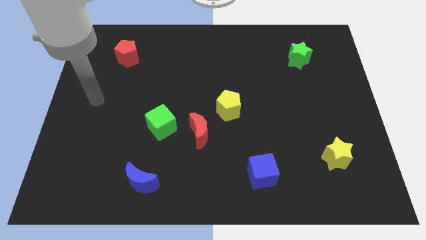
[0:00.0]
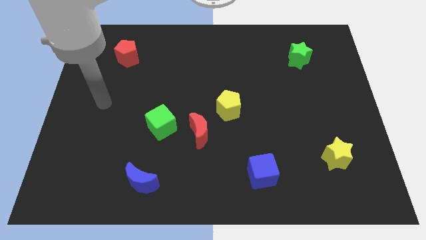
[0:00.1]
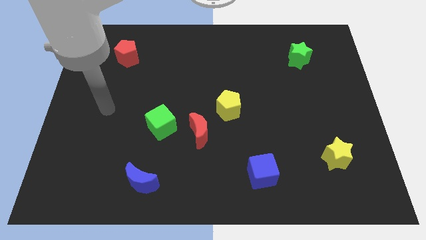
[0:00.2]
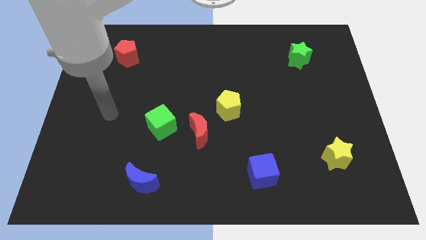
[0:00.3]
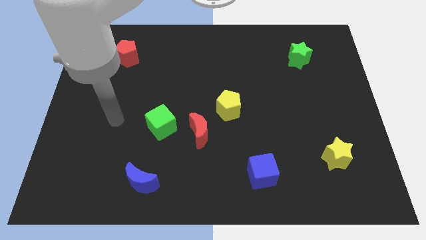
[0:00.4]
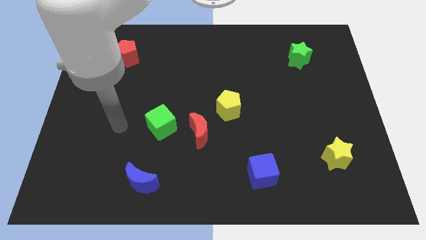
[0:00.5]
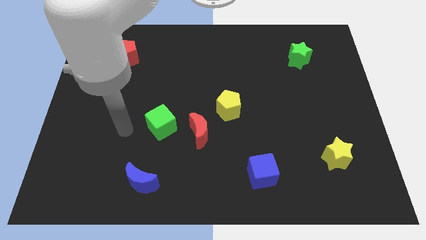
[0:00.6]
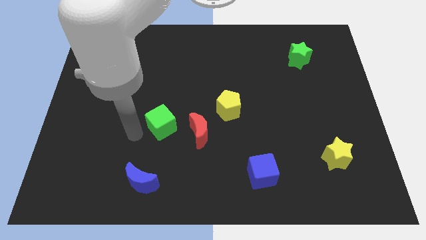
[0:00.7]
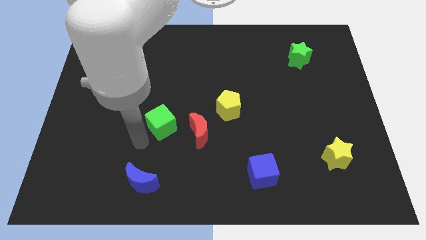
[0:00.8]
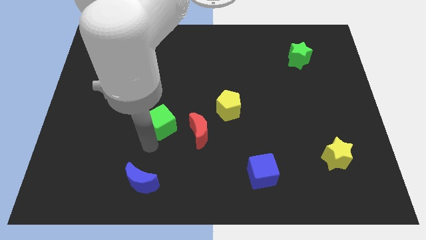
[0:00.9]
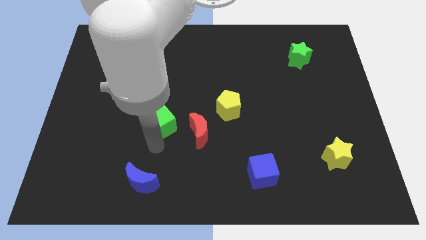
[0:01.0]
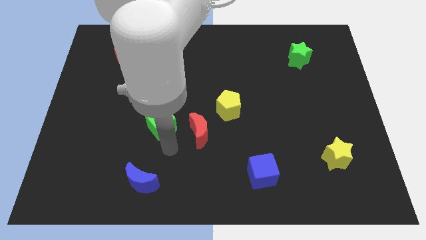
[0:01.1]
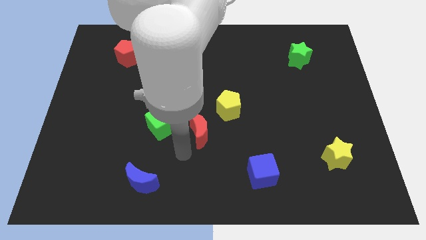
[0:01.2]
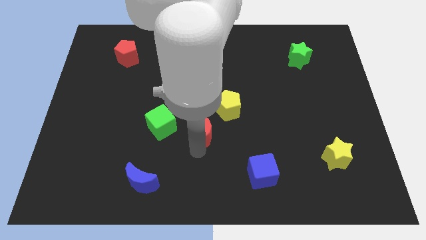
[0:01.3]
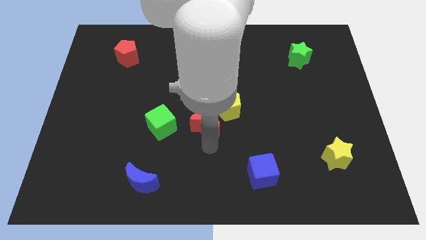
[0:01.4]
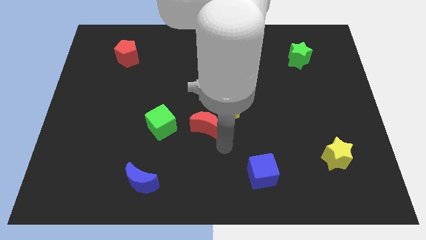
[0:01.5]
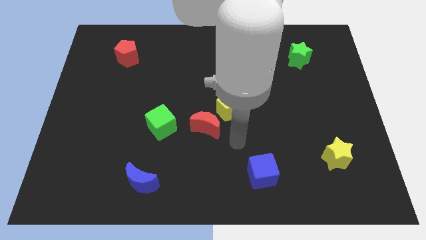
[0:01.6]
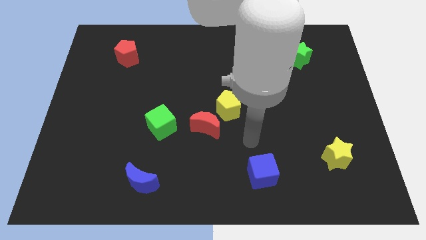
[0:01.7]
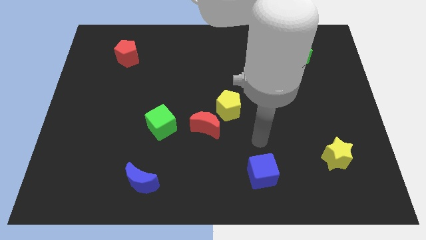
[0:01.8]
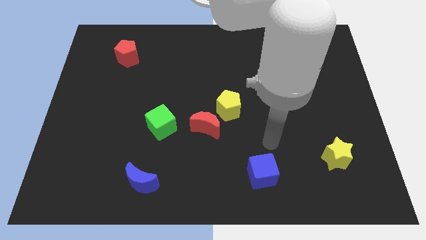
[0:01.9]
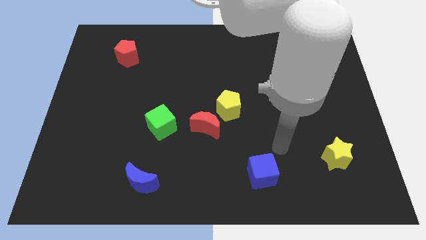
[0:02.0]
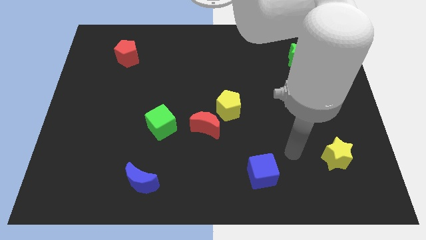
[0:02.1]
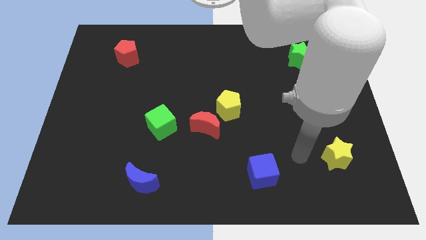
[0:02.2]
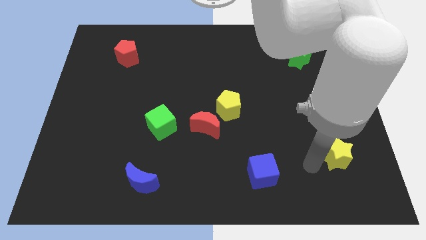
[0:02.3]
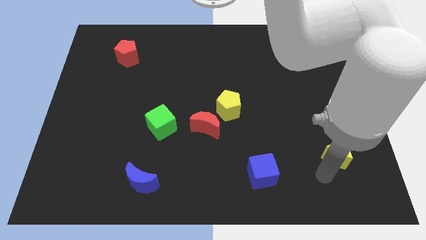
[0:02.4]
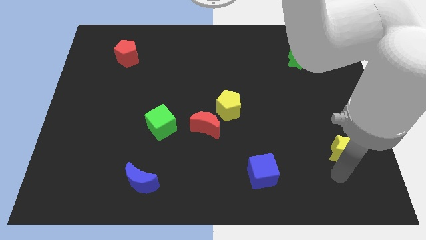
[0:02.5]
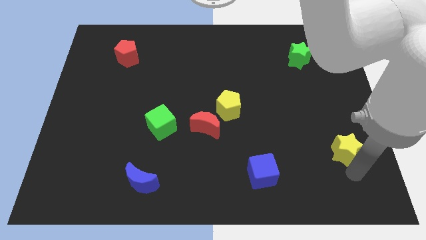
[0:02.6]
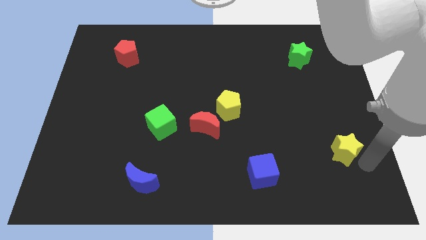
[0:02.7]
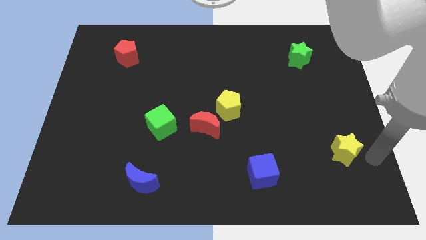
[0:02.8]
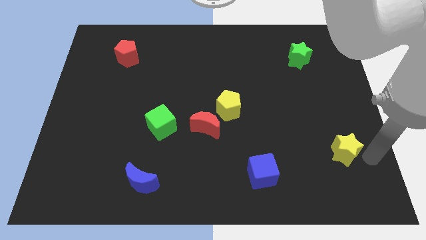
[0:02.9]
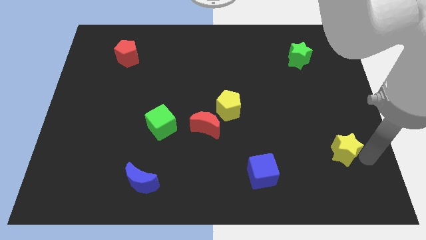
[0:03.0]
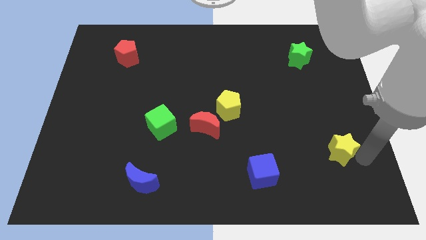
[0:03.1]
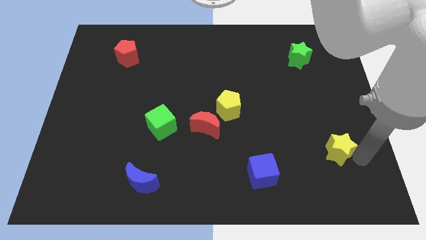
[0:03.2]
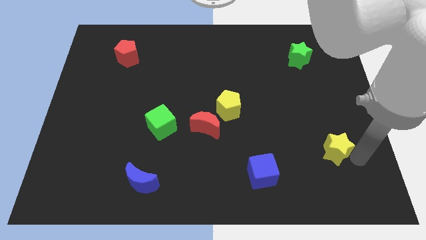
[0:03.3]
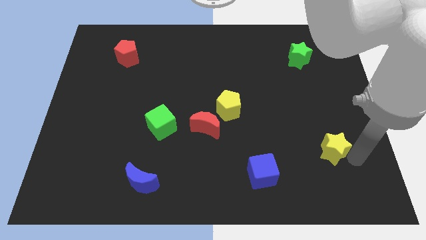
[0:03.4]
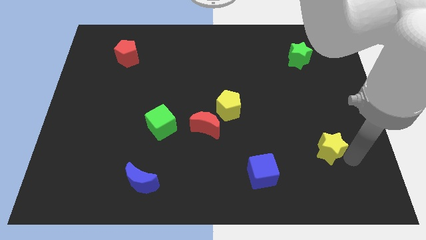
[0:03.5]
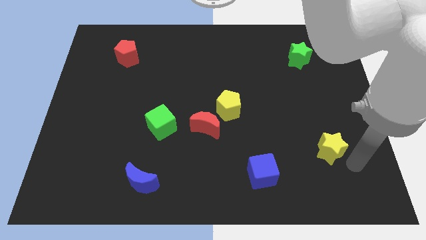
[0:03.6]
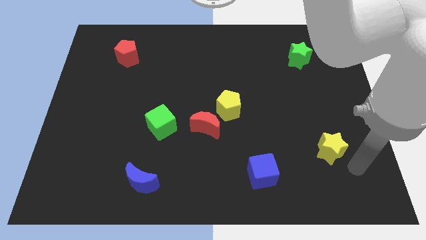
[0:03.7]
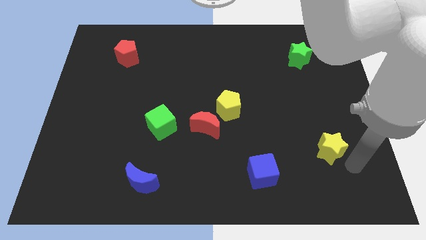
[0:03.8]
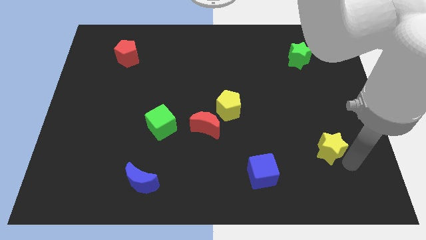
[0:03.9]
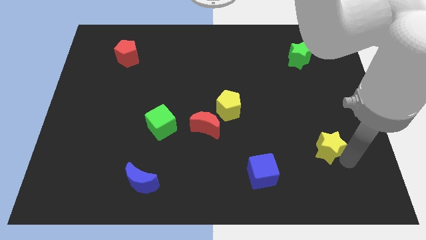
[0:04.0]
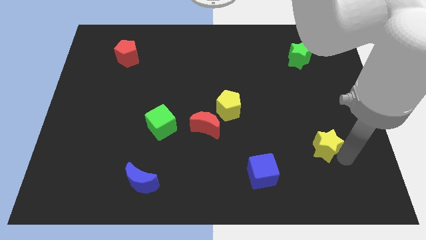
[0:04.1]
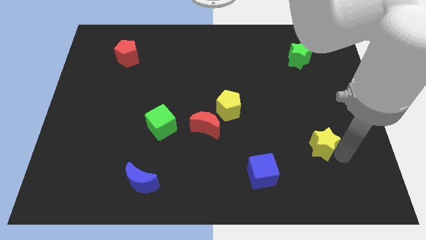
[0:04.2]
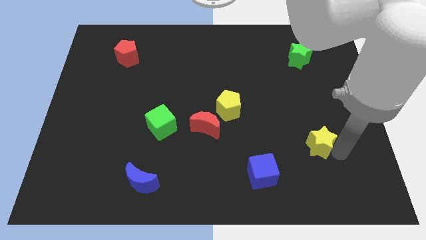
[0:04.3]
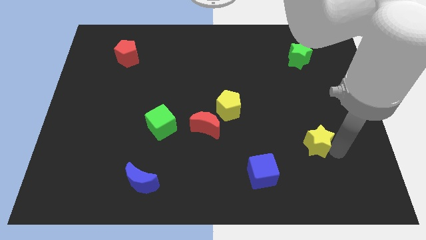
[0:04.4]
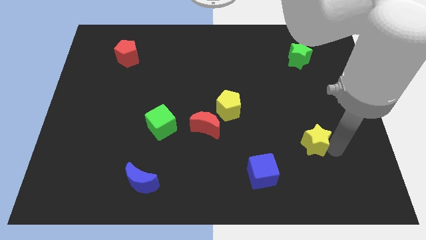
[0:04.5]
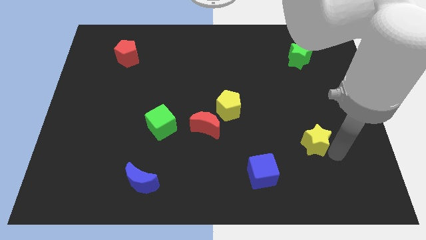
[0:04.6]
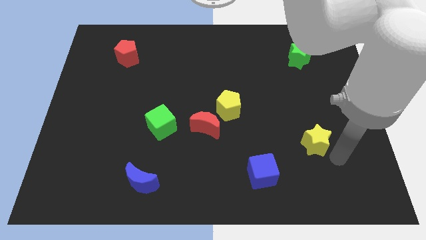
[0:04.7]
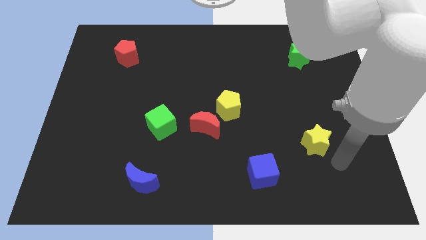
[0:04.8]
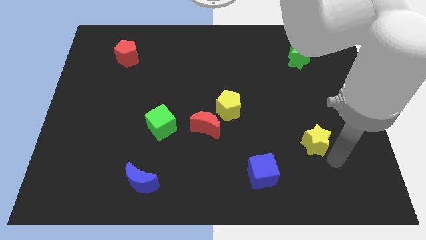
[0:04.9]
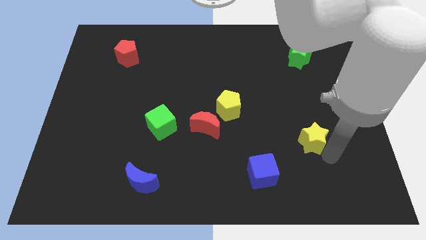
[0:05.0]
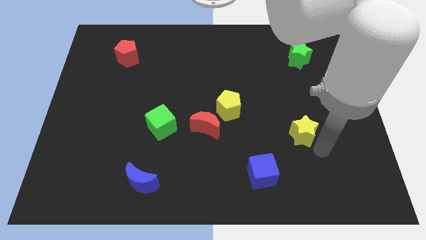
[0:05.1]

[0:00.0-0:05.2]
slightly move the yellow star up and then left

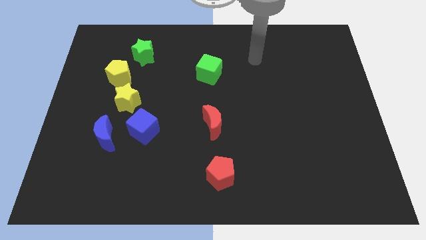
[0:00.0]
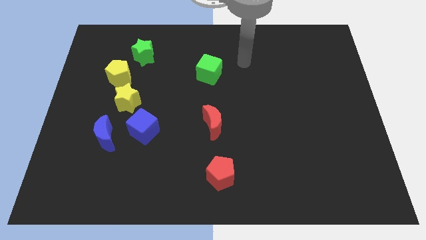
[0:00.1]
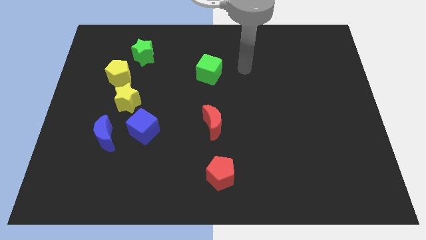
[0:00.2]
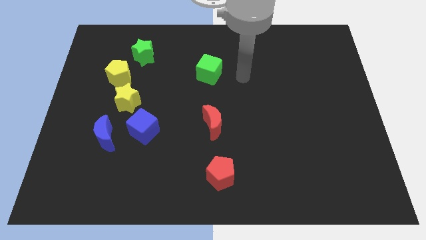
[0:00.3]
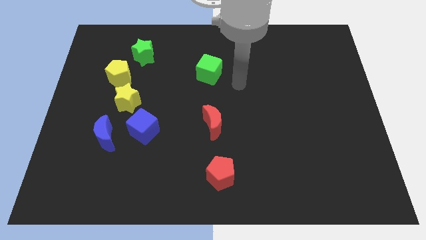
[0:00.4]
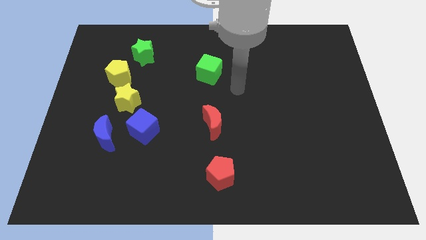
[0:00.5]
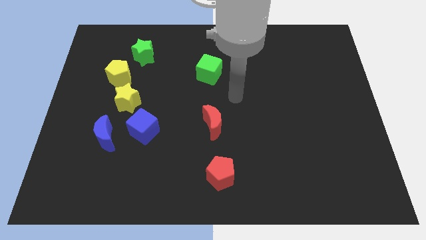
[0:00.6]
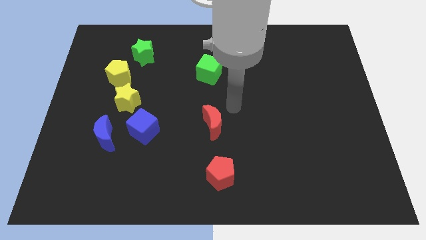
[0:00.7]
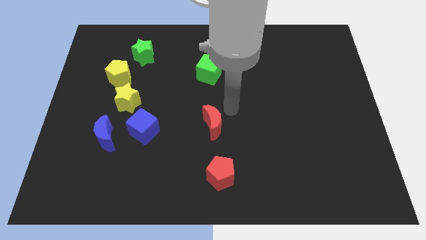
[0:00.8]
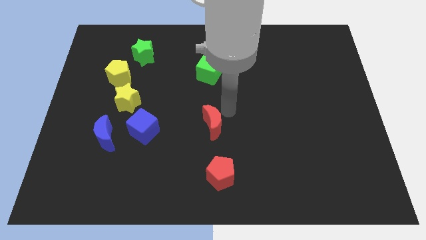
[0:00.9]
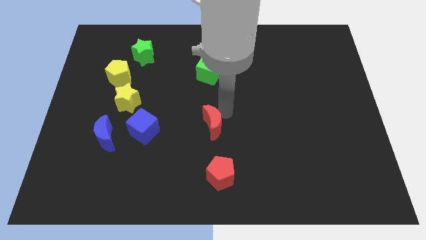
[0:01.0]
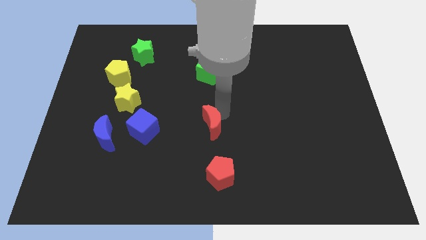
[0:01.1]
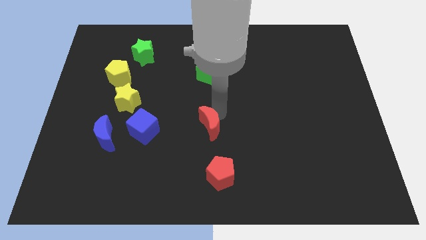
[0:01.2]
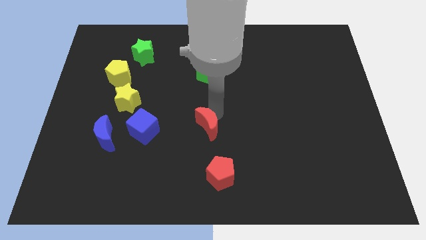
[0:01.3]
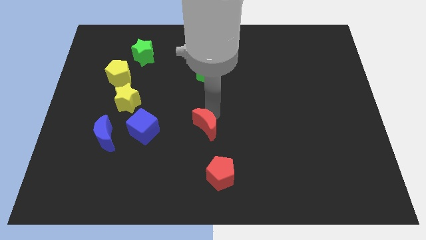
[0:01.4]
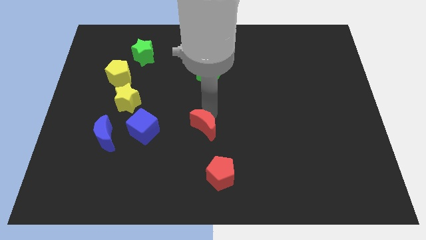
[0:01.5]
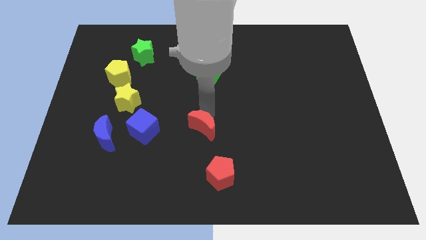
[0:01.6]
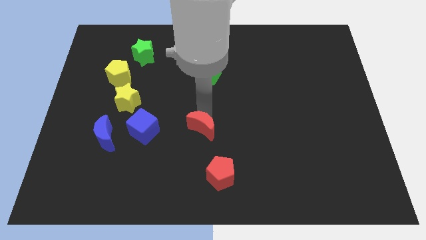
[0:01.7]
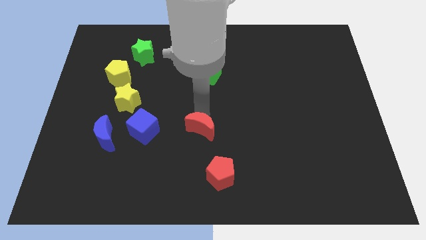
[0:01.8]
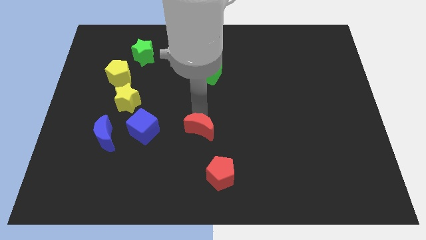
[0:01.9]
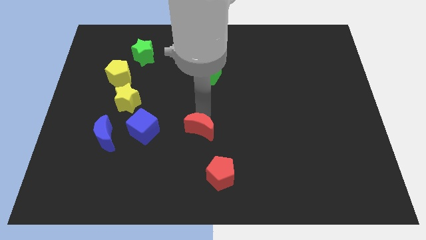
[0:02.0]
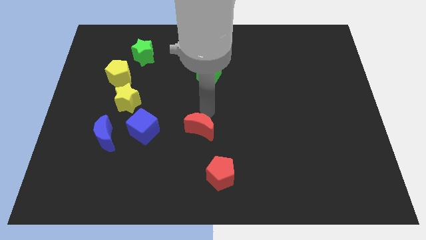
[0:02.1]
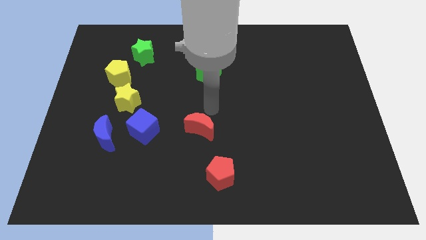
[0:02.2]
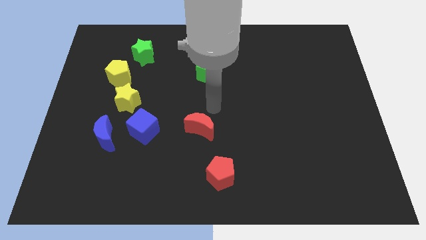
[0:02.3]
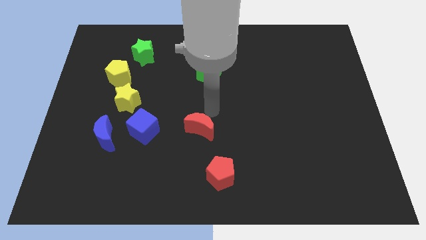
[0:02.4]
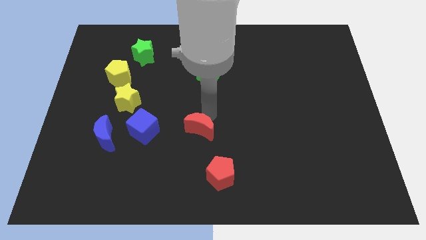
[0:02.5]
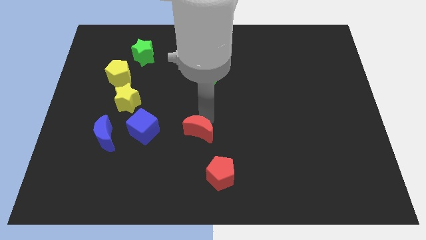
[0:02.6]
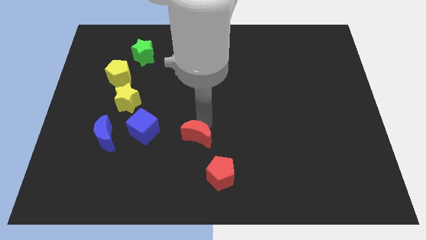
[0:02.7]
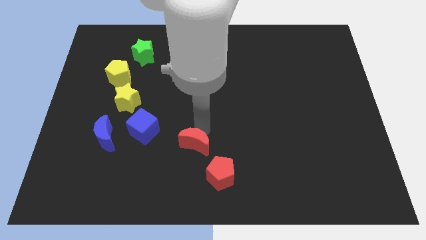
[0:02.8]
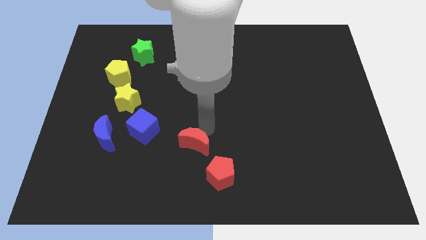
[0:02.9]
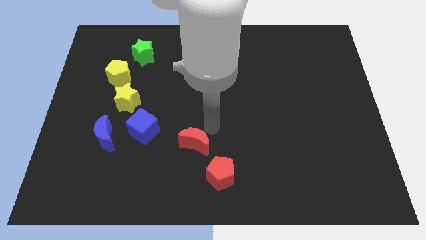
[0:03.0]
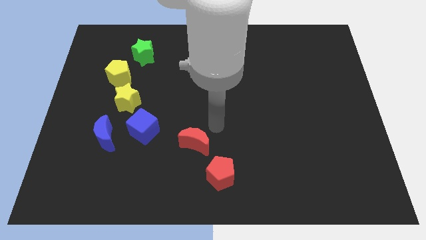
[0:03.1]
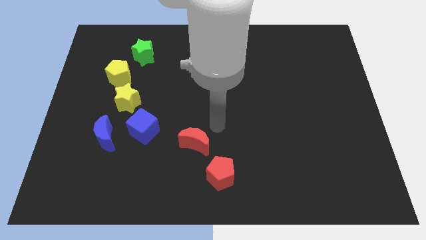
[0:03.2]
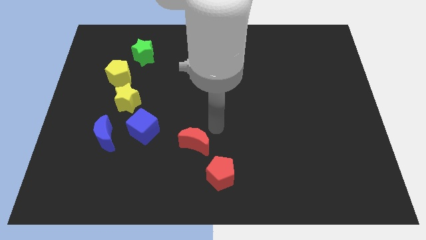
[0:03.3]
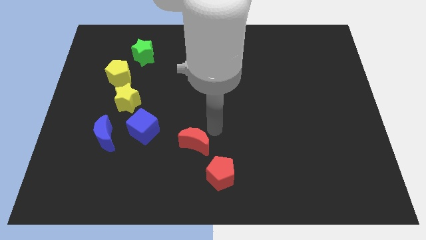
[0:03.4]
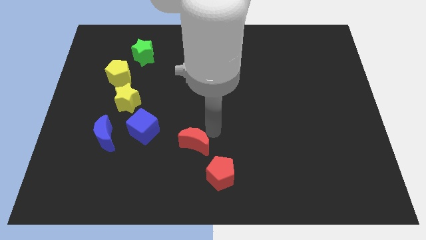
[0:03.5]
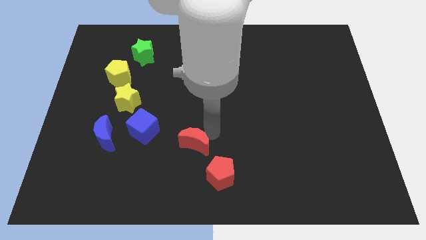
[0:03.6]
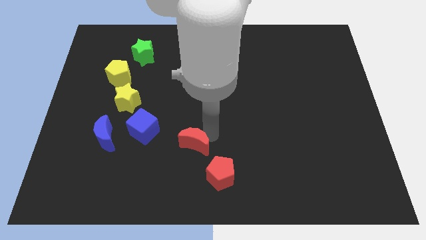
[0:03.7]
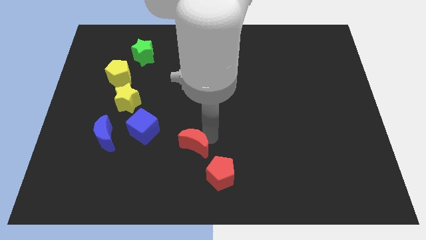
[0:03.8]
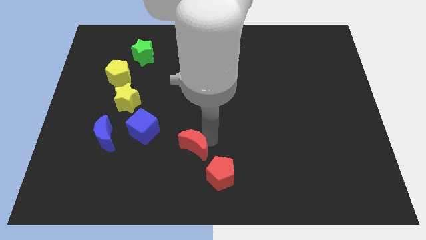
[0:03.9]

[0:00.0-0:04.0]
slide the red moon a little bit down and then to the left
